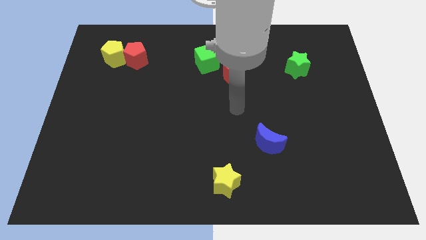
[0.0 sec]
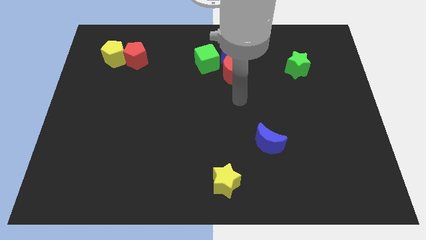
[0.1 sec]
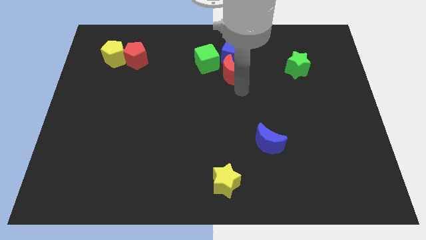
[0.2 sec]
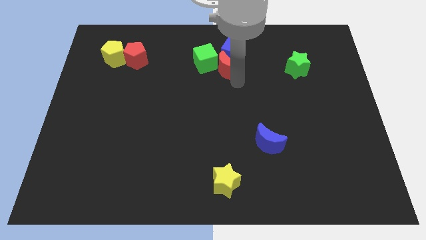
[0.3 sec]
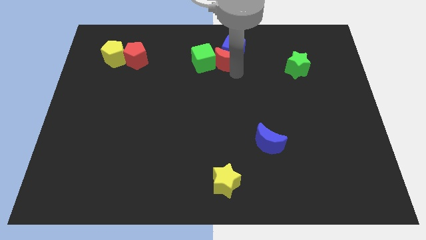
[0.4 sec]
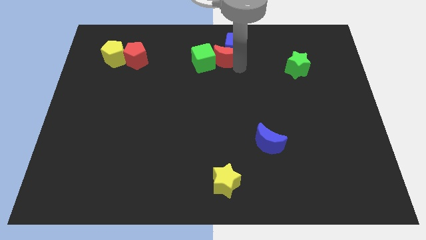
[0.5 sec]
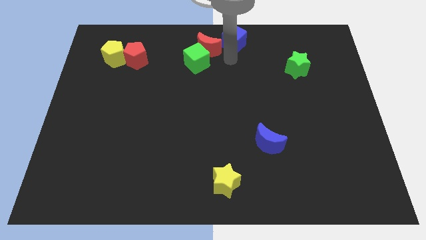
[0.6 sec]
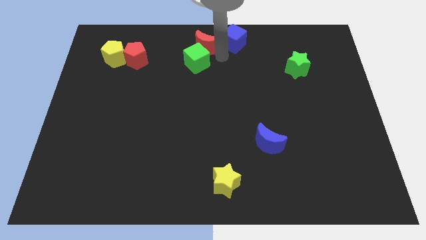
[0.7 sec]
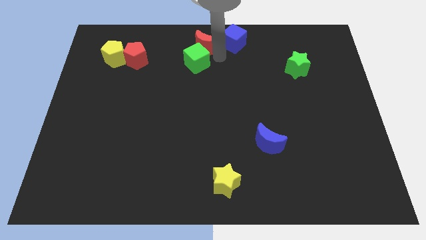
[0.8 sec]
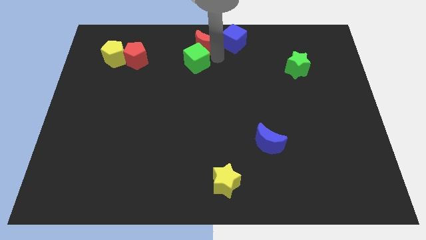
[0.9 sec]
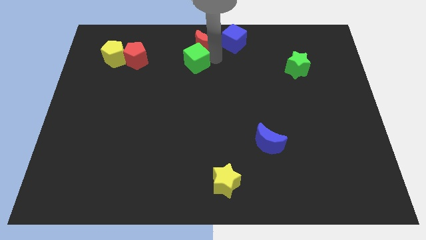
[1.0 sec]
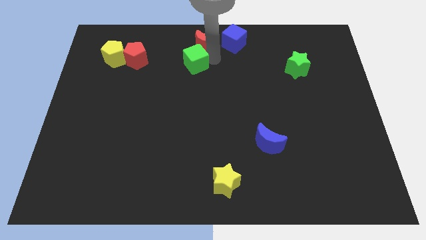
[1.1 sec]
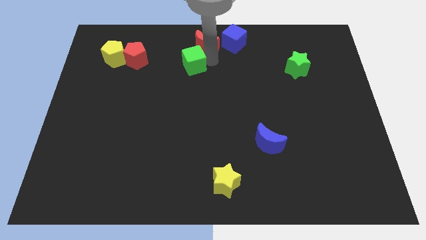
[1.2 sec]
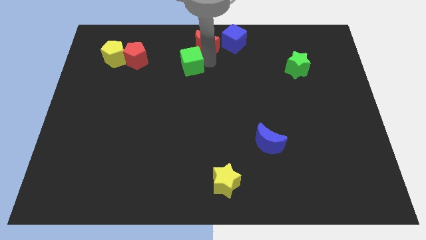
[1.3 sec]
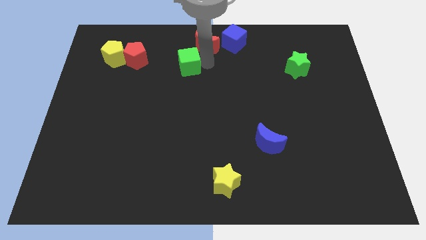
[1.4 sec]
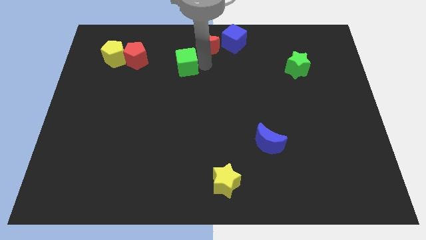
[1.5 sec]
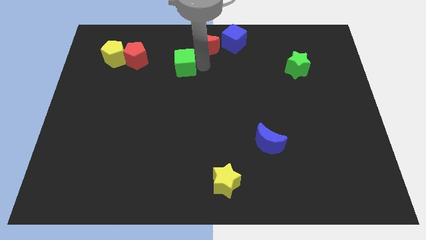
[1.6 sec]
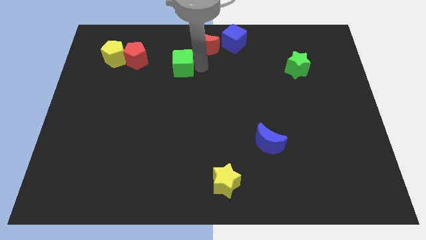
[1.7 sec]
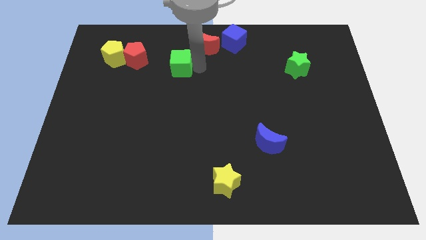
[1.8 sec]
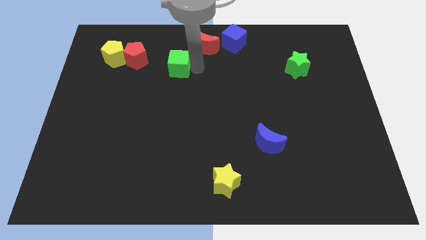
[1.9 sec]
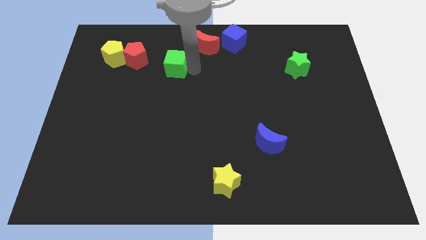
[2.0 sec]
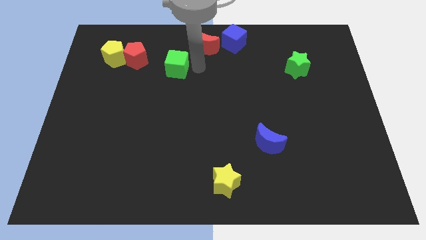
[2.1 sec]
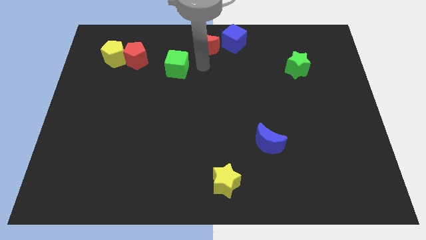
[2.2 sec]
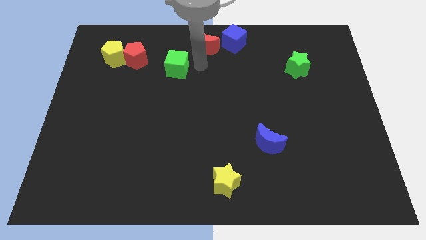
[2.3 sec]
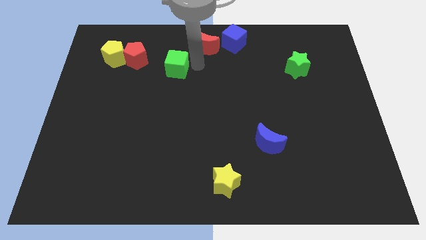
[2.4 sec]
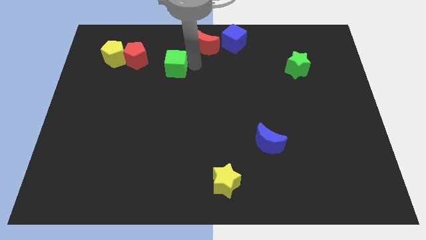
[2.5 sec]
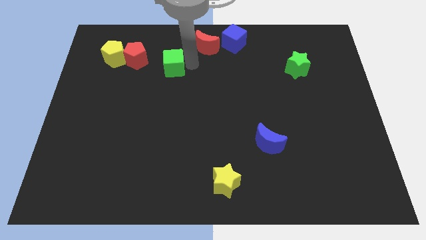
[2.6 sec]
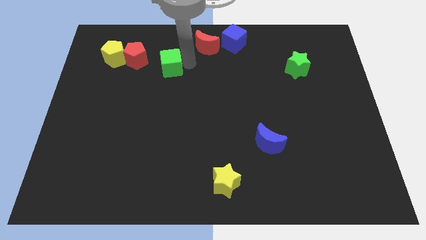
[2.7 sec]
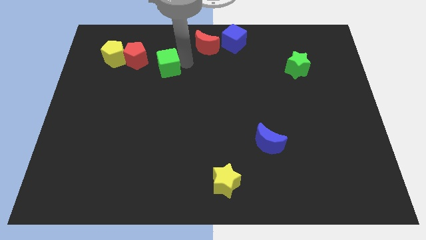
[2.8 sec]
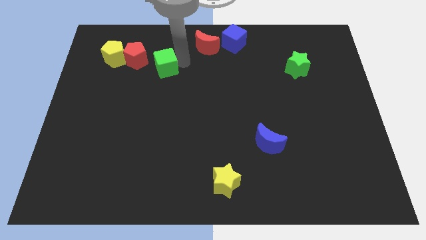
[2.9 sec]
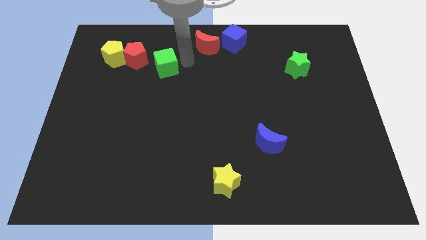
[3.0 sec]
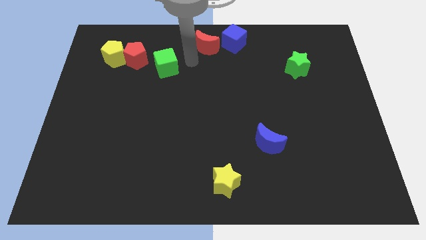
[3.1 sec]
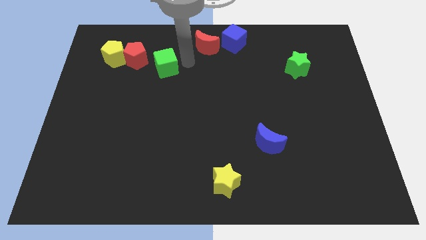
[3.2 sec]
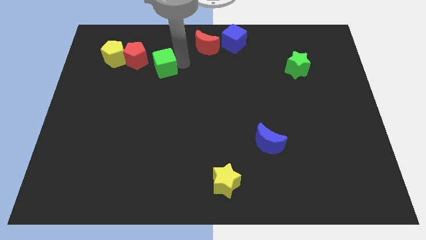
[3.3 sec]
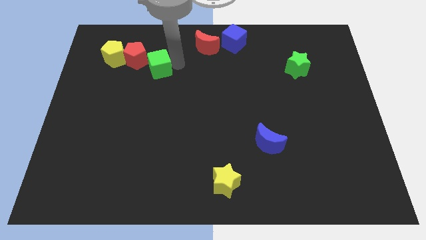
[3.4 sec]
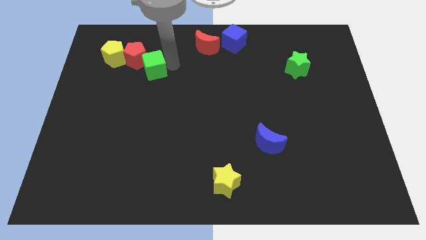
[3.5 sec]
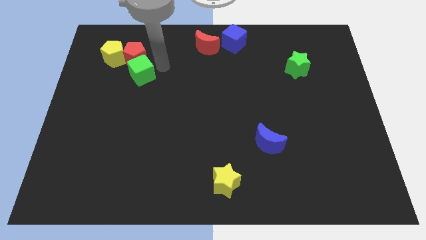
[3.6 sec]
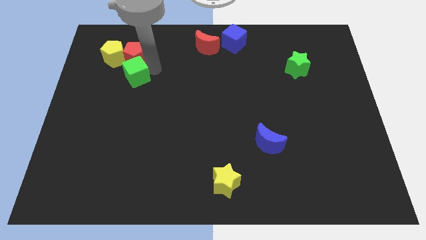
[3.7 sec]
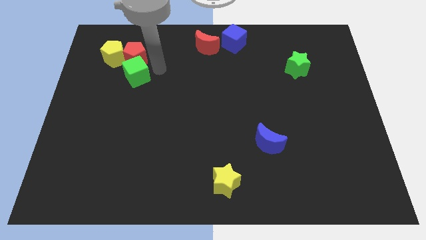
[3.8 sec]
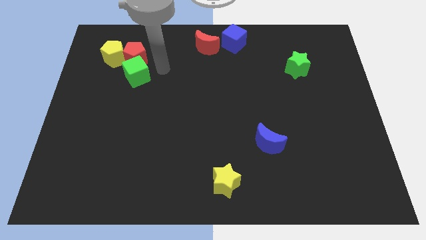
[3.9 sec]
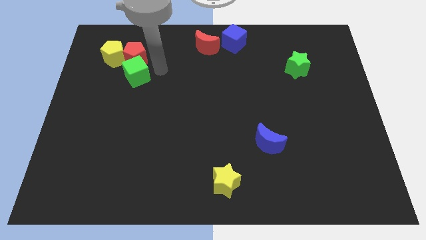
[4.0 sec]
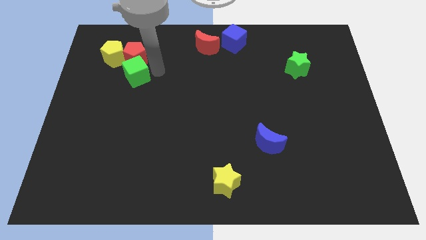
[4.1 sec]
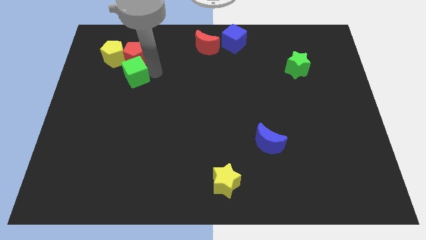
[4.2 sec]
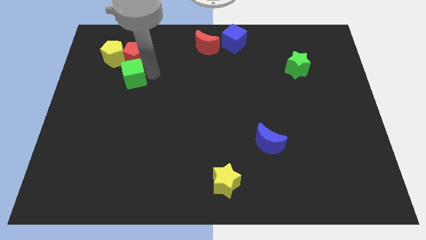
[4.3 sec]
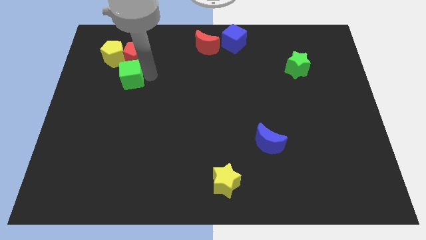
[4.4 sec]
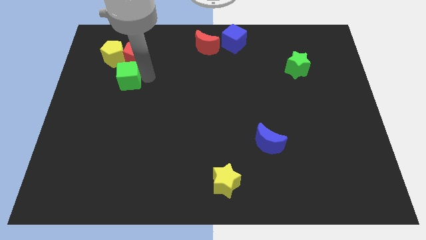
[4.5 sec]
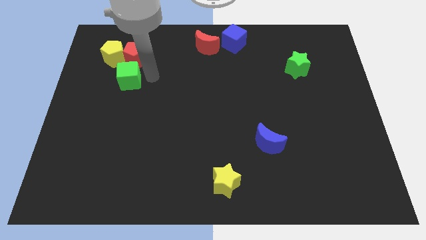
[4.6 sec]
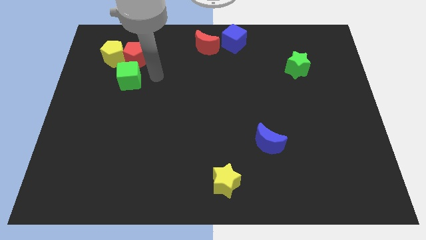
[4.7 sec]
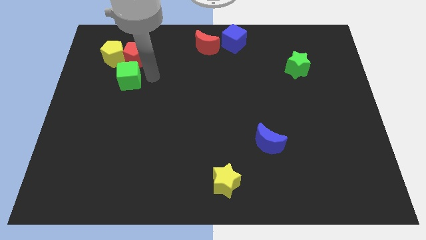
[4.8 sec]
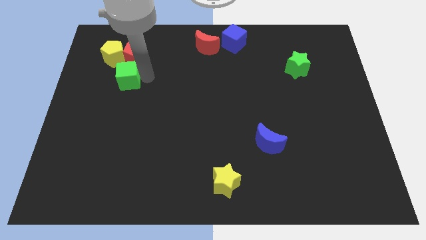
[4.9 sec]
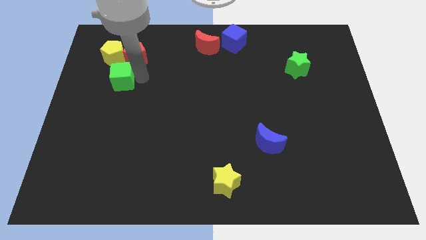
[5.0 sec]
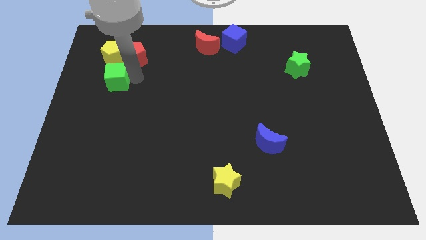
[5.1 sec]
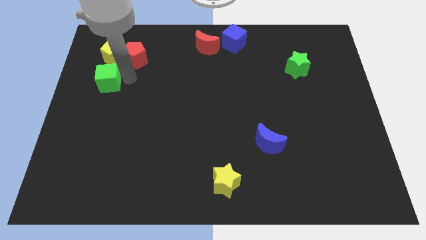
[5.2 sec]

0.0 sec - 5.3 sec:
put the green cube to the center left
